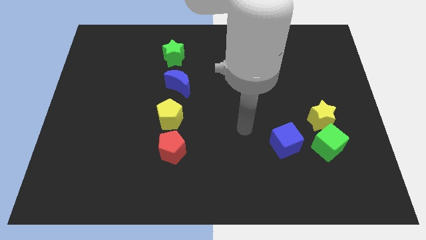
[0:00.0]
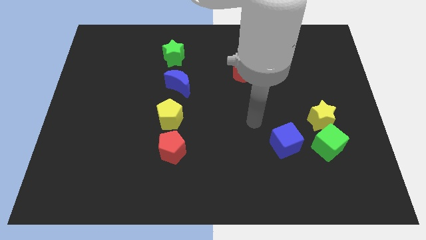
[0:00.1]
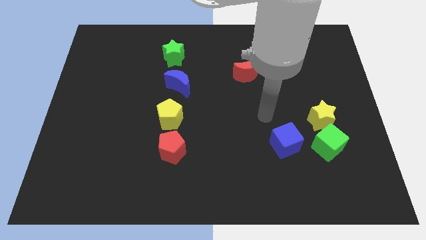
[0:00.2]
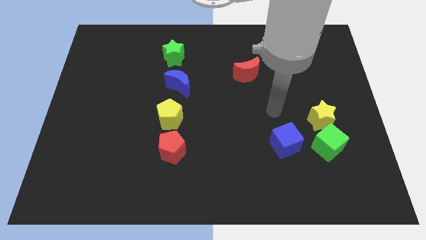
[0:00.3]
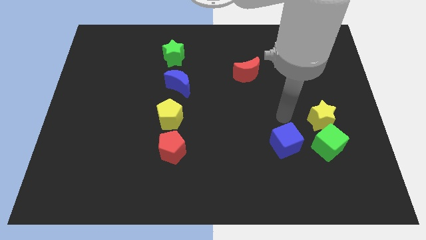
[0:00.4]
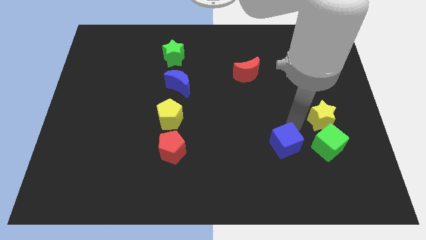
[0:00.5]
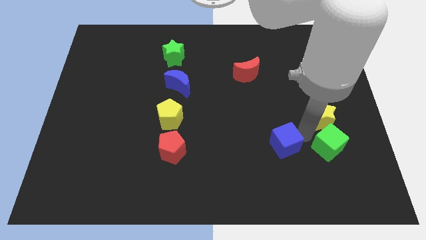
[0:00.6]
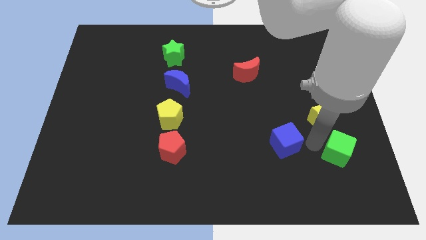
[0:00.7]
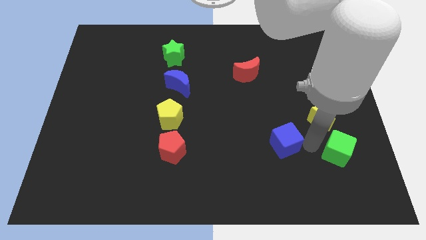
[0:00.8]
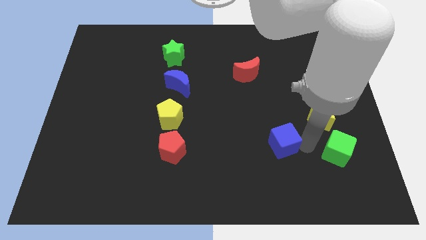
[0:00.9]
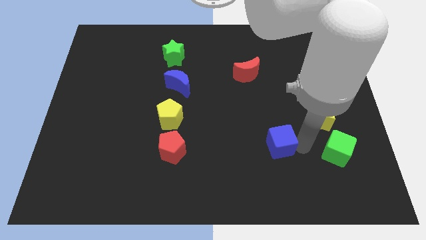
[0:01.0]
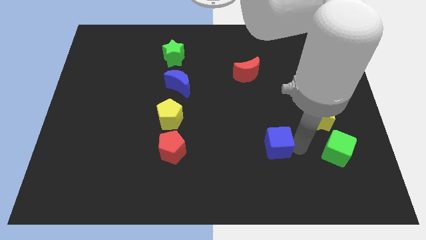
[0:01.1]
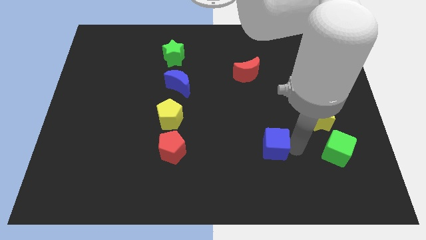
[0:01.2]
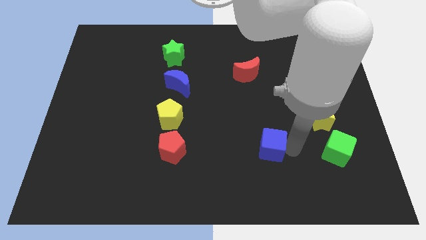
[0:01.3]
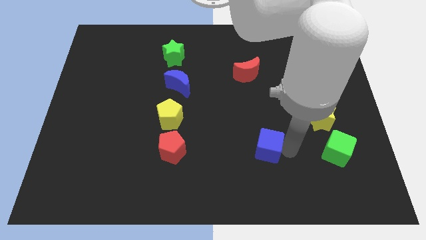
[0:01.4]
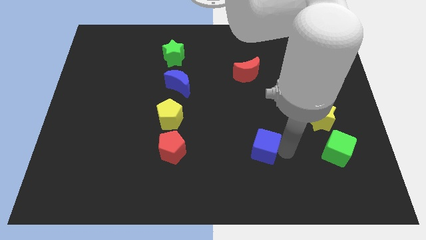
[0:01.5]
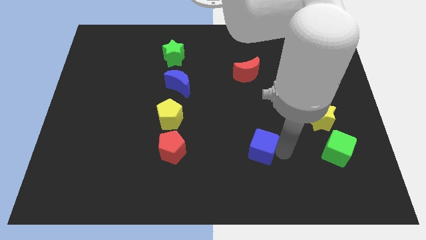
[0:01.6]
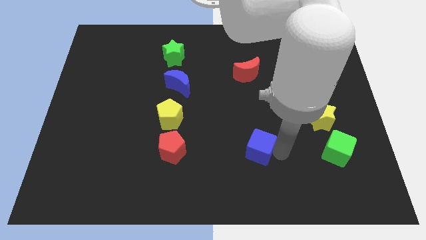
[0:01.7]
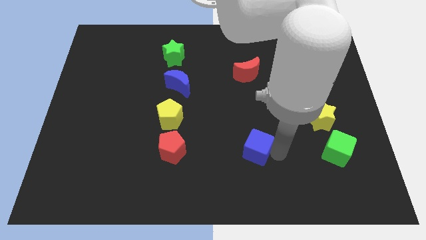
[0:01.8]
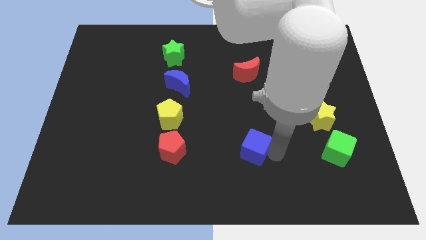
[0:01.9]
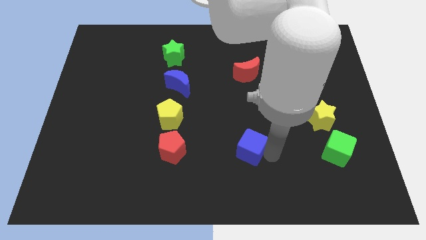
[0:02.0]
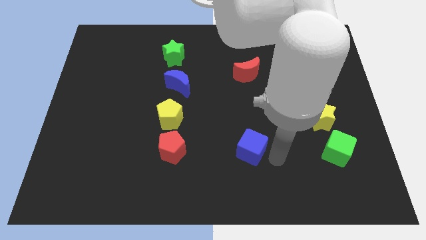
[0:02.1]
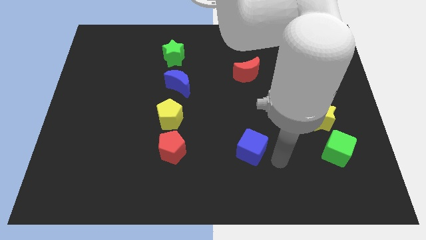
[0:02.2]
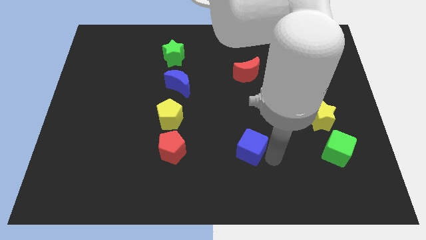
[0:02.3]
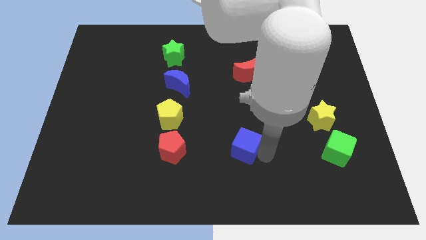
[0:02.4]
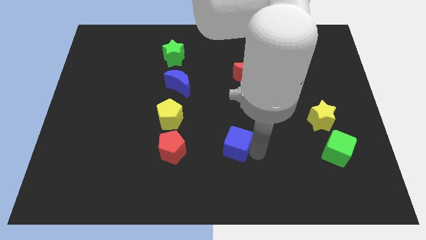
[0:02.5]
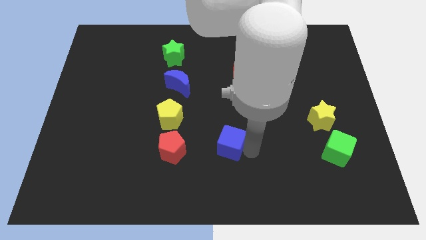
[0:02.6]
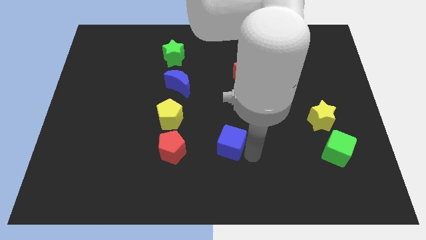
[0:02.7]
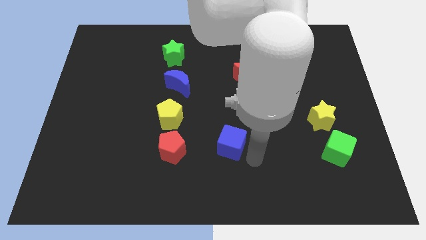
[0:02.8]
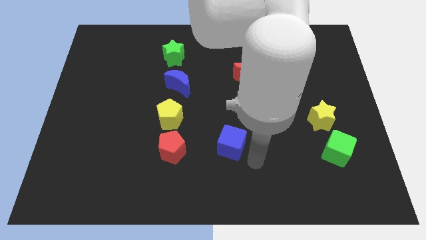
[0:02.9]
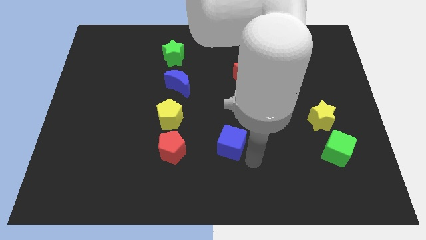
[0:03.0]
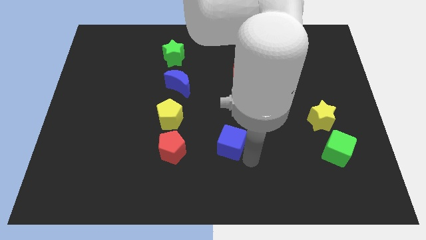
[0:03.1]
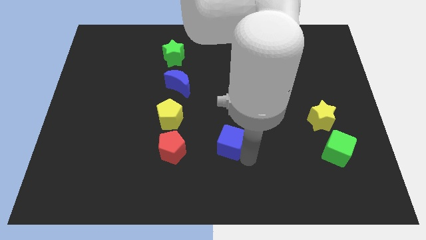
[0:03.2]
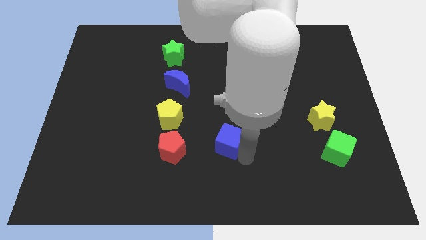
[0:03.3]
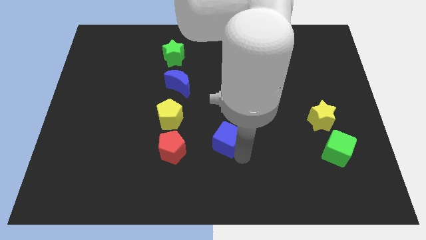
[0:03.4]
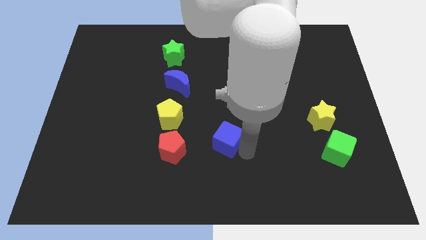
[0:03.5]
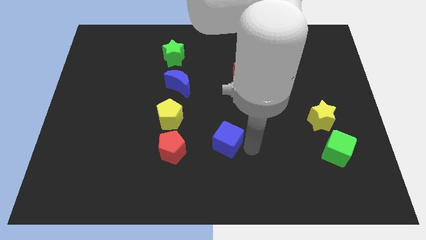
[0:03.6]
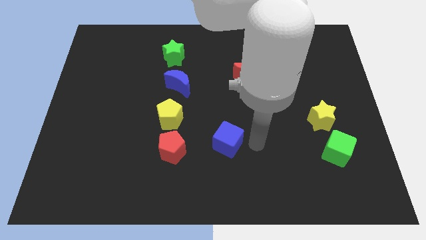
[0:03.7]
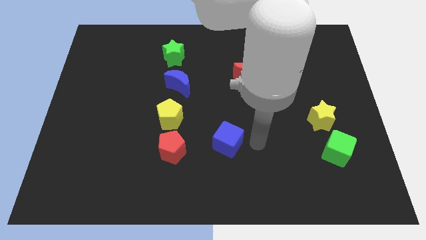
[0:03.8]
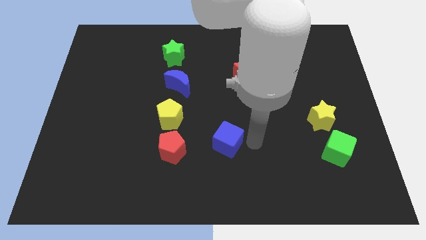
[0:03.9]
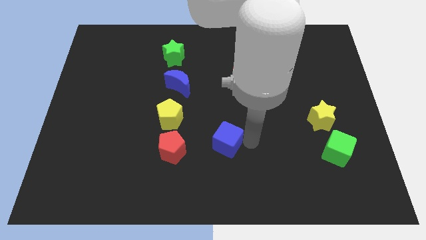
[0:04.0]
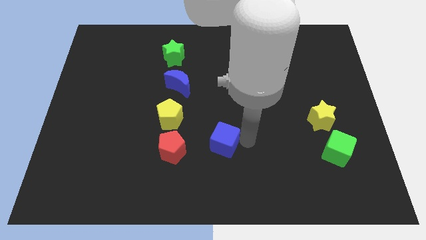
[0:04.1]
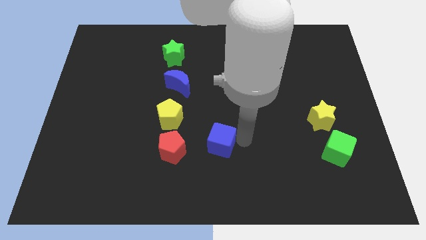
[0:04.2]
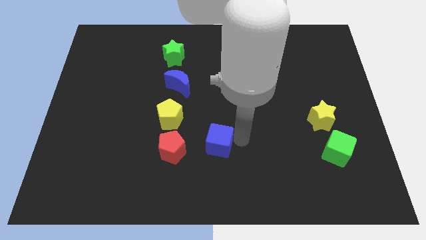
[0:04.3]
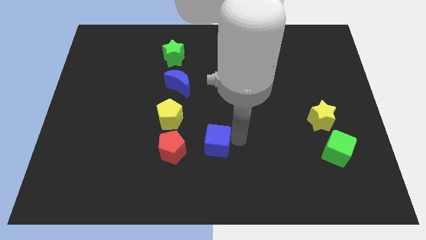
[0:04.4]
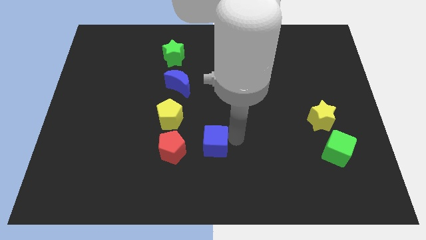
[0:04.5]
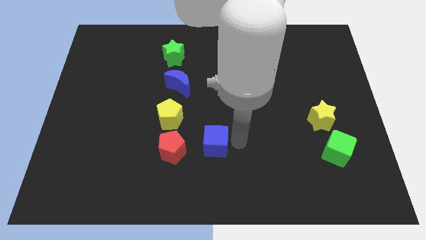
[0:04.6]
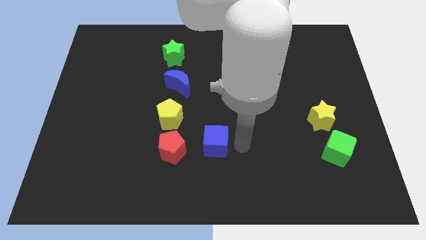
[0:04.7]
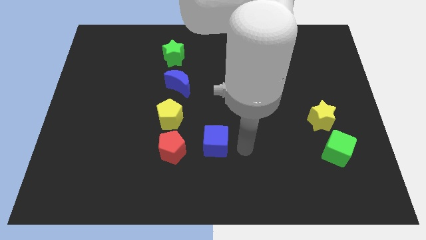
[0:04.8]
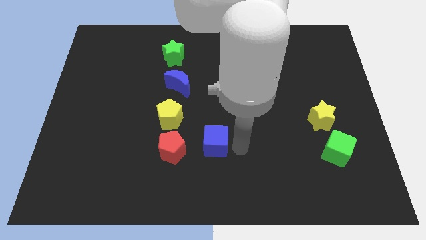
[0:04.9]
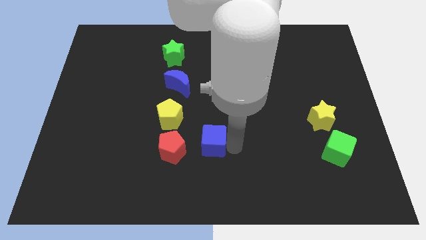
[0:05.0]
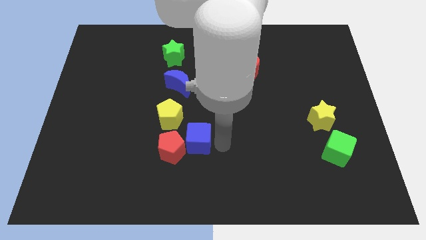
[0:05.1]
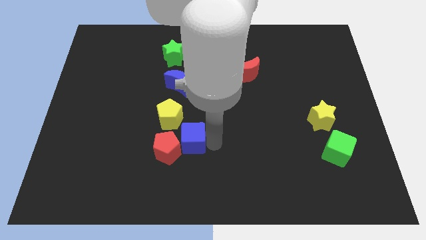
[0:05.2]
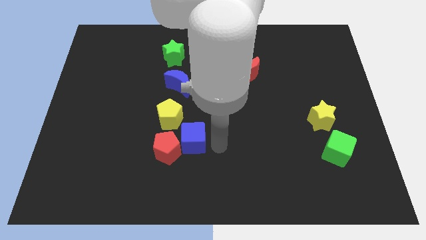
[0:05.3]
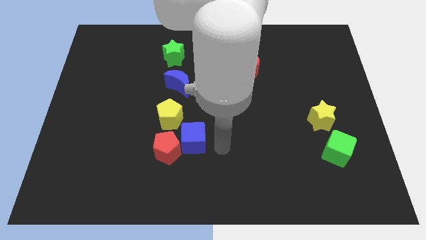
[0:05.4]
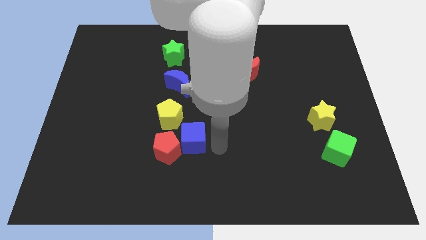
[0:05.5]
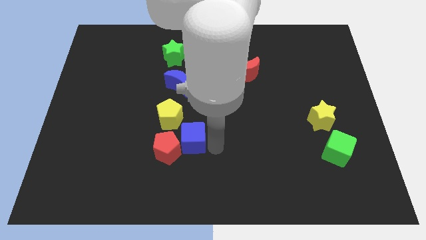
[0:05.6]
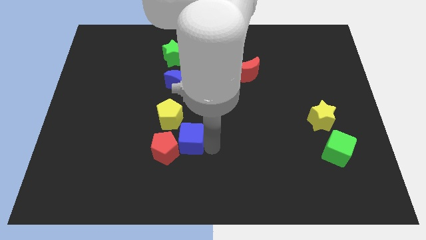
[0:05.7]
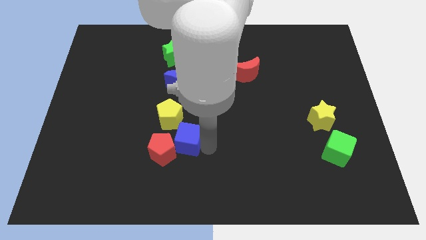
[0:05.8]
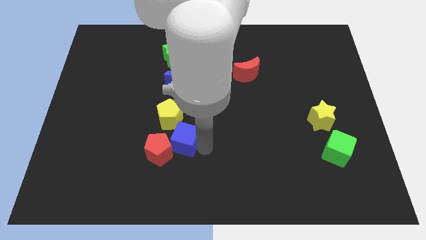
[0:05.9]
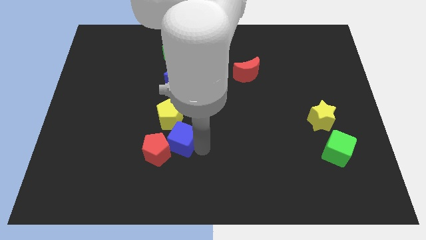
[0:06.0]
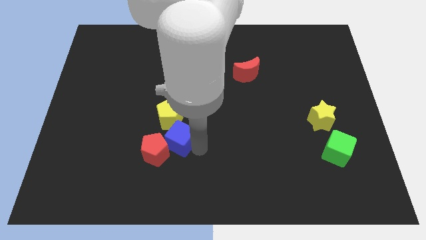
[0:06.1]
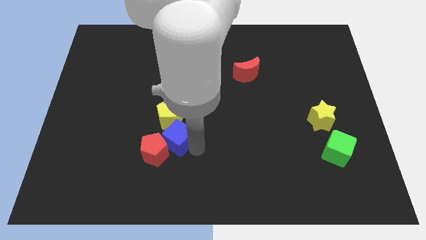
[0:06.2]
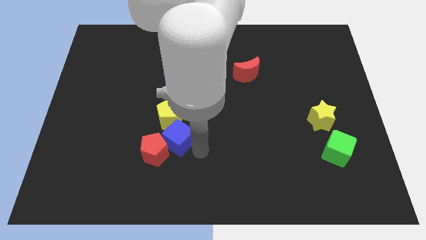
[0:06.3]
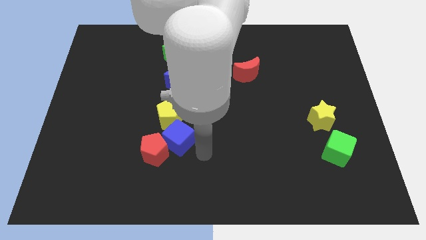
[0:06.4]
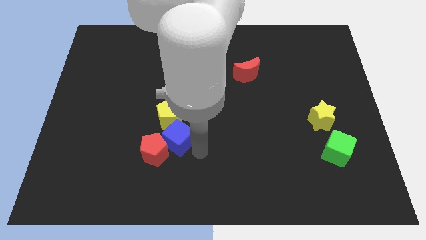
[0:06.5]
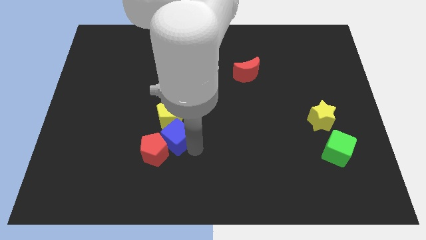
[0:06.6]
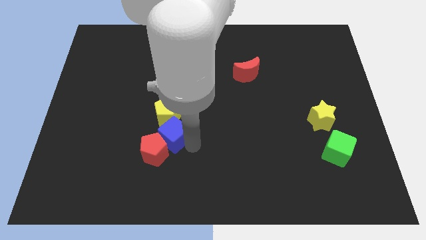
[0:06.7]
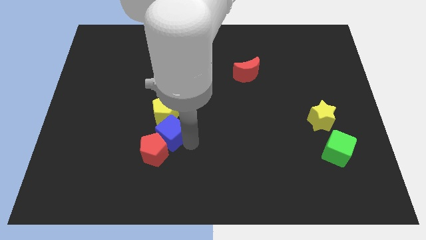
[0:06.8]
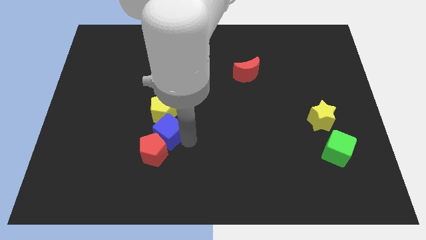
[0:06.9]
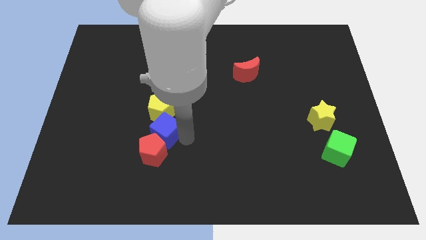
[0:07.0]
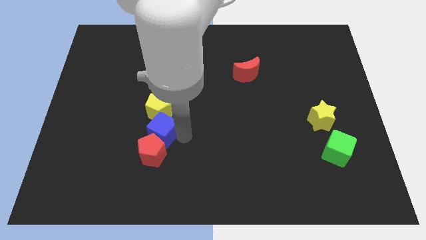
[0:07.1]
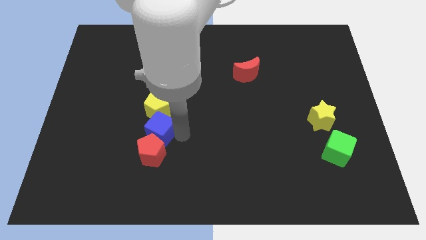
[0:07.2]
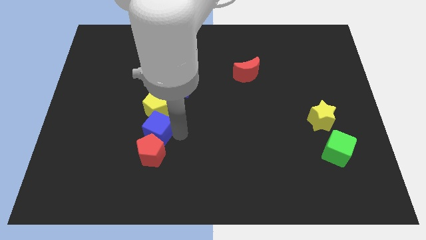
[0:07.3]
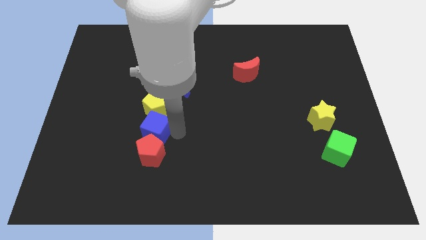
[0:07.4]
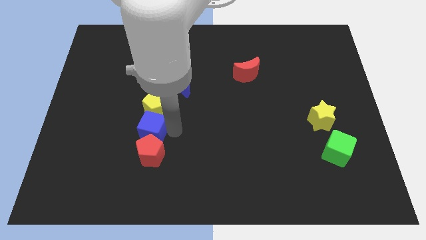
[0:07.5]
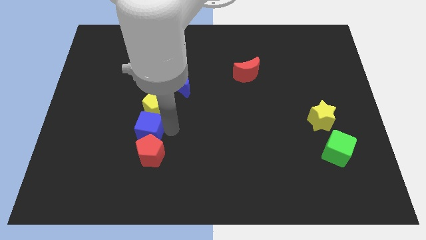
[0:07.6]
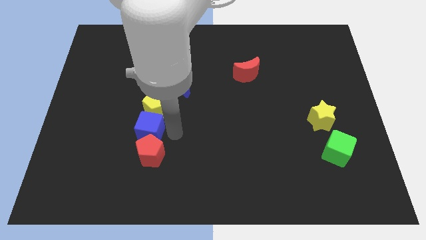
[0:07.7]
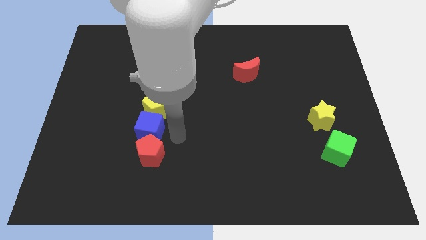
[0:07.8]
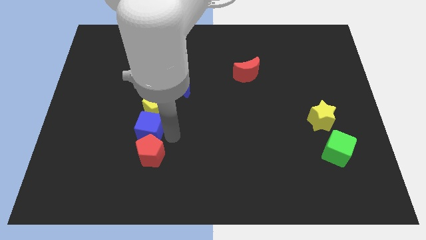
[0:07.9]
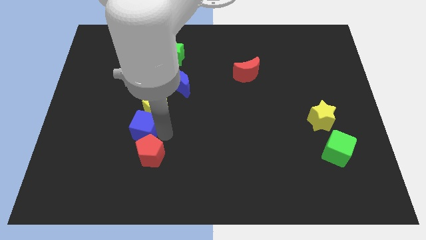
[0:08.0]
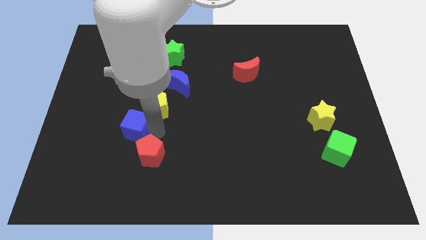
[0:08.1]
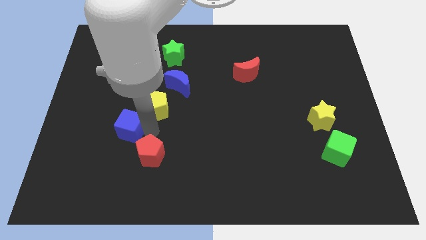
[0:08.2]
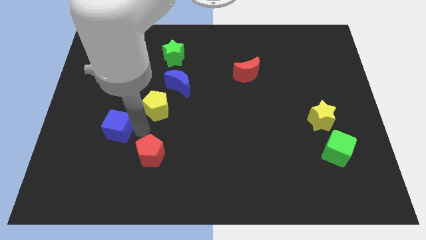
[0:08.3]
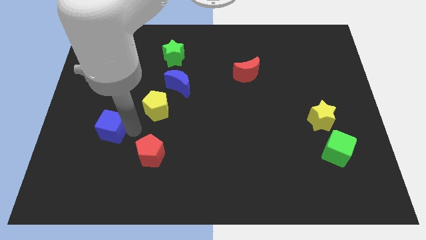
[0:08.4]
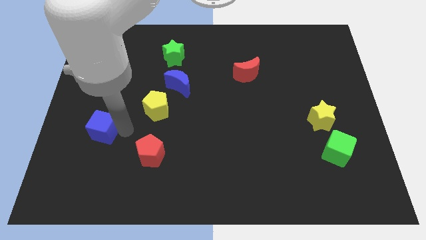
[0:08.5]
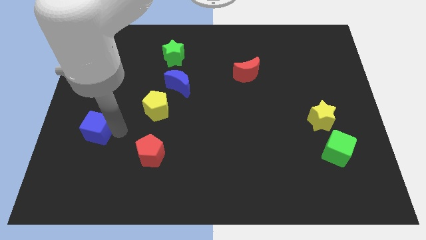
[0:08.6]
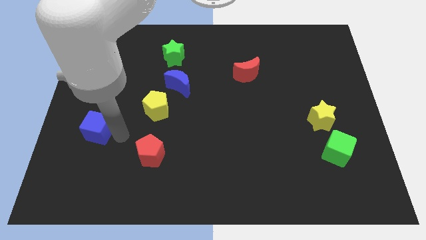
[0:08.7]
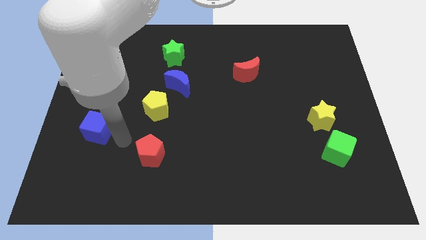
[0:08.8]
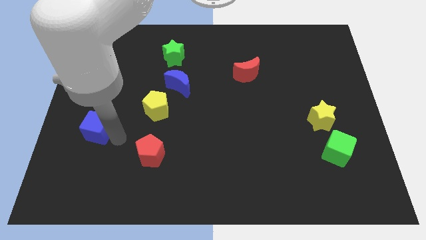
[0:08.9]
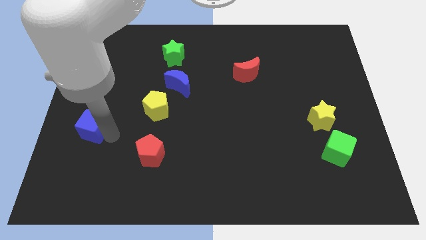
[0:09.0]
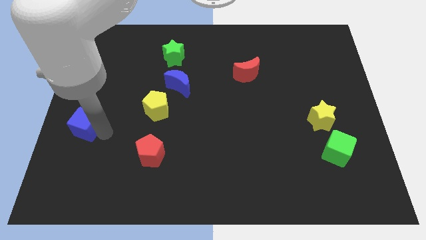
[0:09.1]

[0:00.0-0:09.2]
slide the blue cube to the left side
